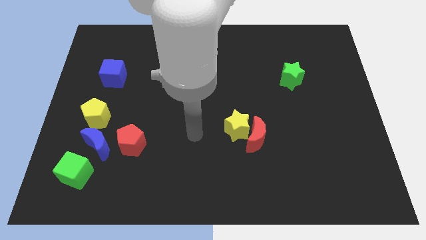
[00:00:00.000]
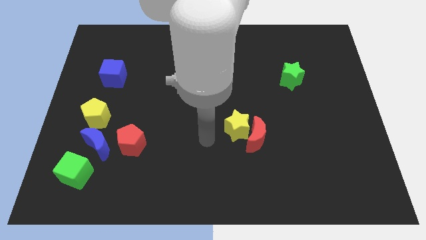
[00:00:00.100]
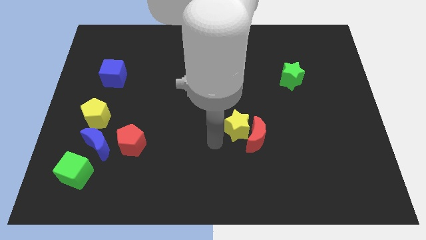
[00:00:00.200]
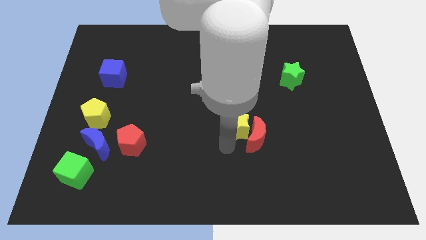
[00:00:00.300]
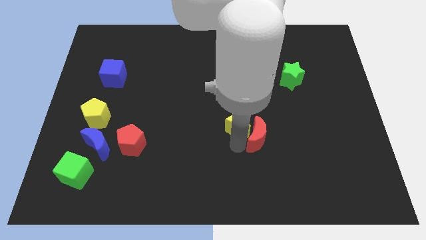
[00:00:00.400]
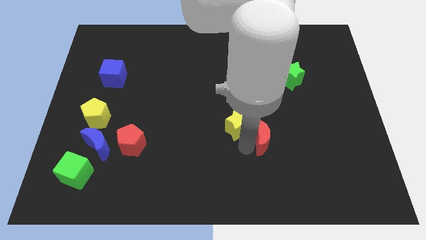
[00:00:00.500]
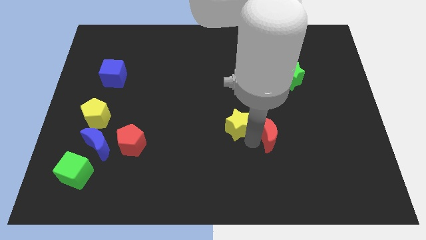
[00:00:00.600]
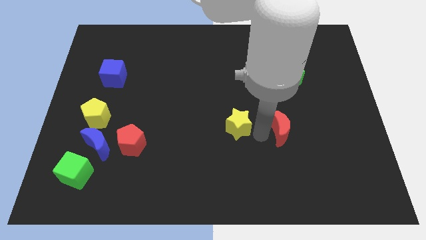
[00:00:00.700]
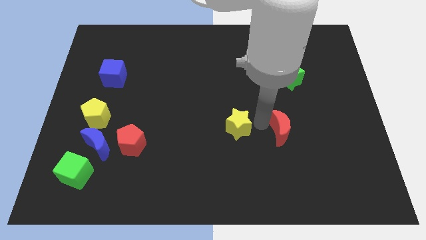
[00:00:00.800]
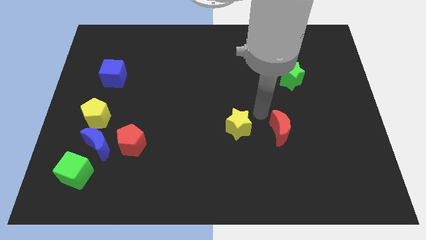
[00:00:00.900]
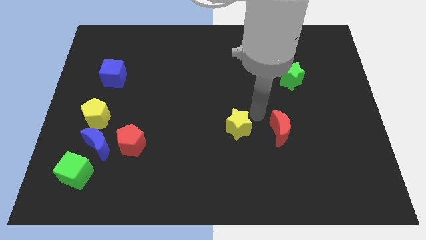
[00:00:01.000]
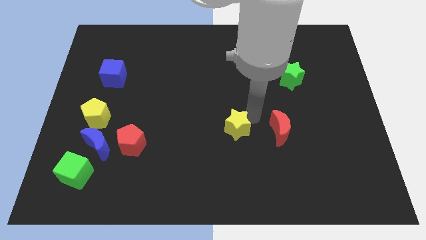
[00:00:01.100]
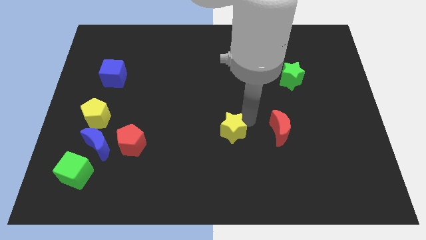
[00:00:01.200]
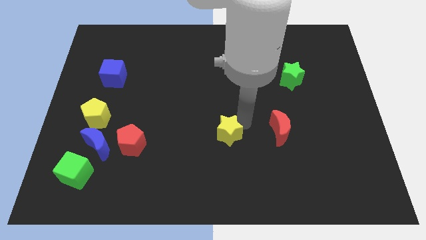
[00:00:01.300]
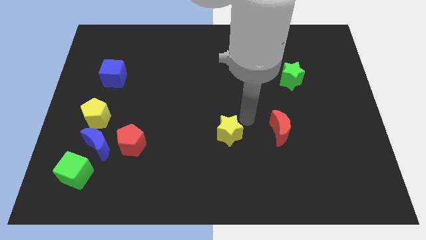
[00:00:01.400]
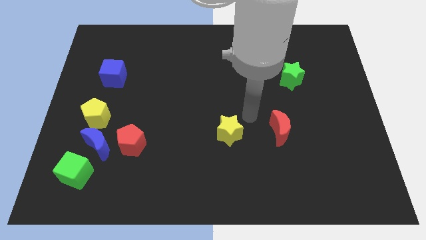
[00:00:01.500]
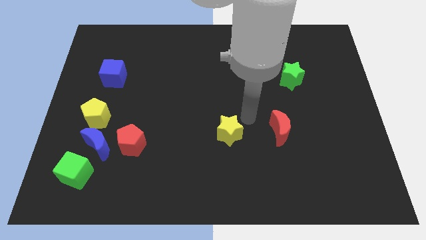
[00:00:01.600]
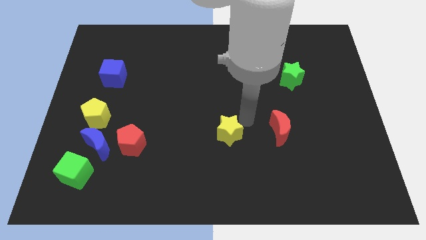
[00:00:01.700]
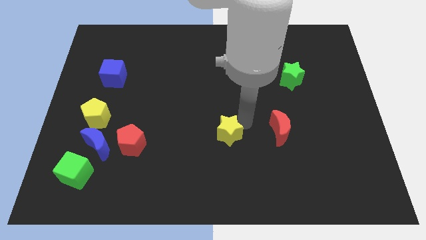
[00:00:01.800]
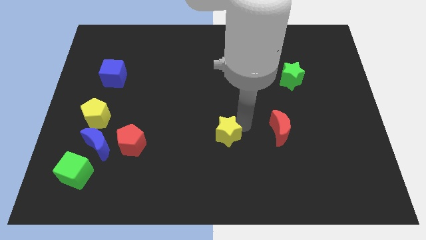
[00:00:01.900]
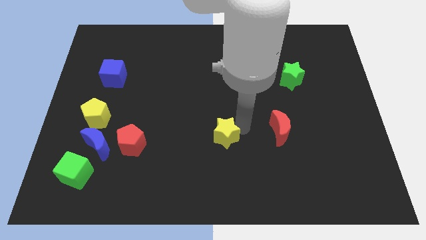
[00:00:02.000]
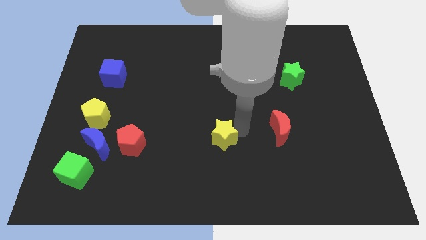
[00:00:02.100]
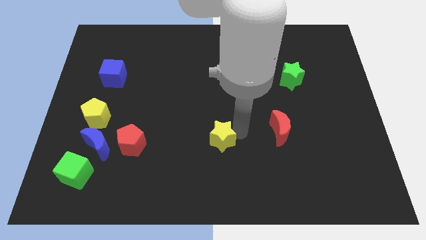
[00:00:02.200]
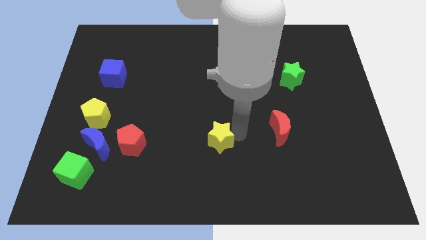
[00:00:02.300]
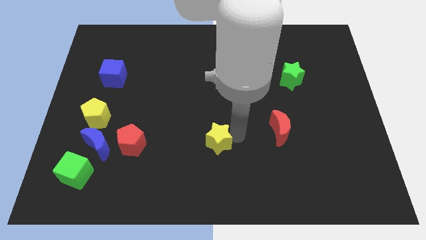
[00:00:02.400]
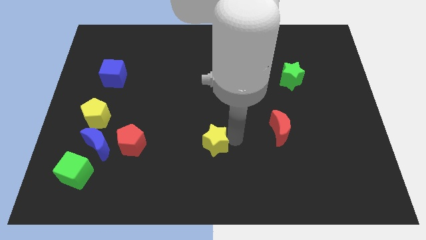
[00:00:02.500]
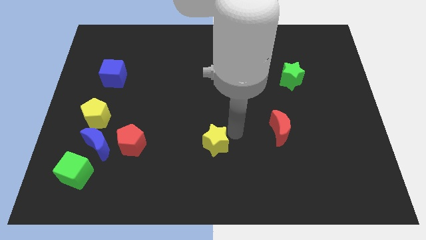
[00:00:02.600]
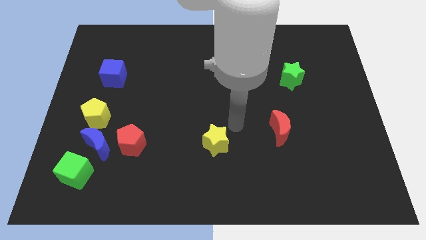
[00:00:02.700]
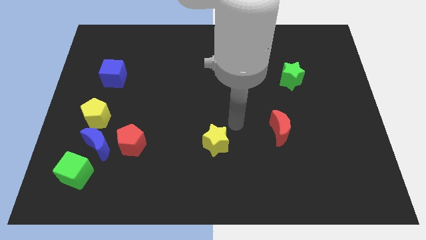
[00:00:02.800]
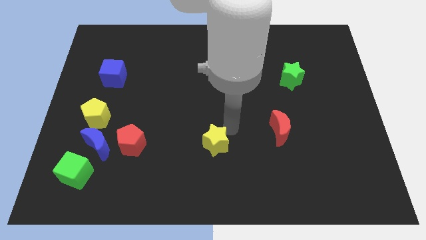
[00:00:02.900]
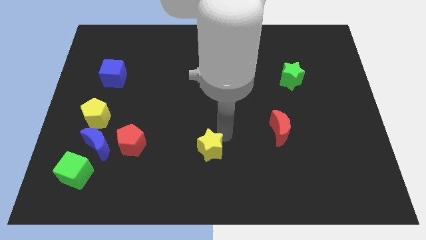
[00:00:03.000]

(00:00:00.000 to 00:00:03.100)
push the yellow star diagonally downwards and left a little bit

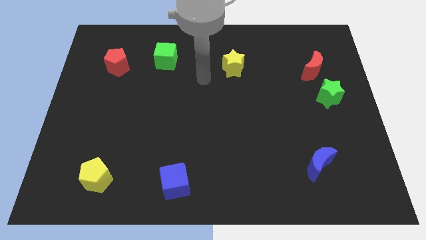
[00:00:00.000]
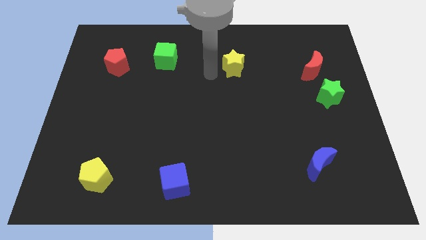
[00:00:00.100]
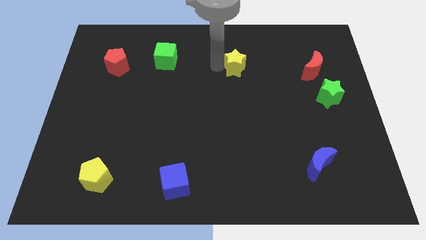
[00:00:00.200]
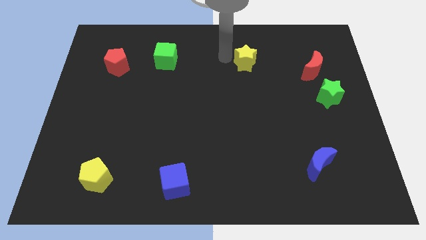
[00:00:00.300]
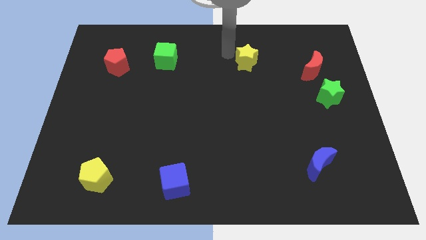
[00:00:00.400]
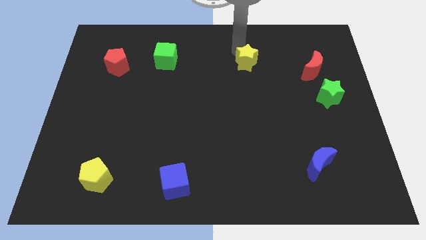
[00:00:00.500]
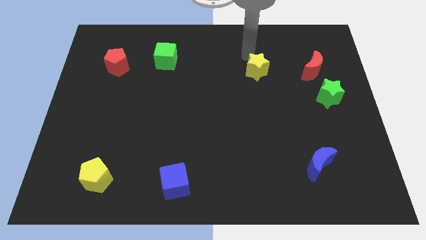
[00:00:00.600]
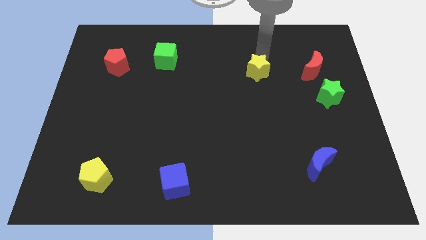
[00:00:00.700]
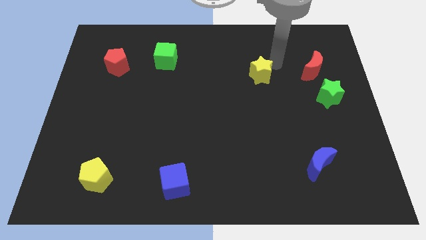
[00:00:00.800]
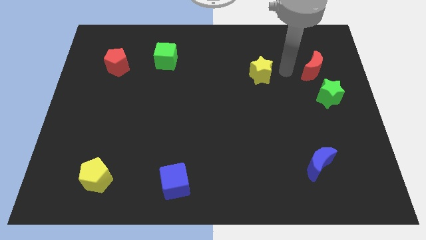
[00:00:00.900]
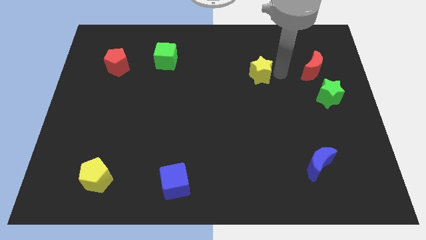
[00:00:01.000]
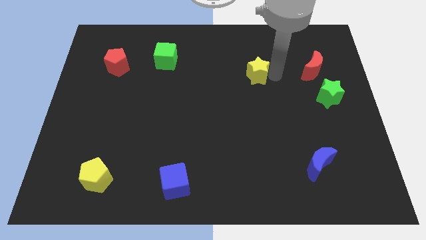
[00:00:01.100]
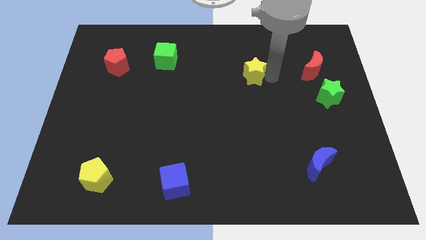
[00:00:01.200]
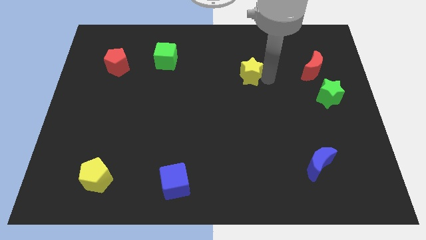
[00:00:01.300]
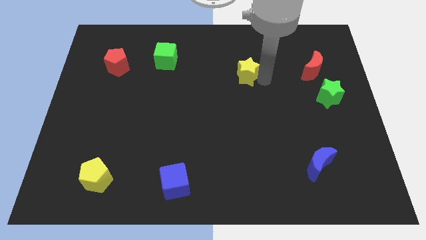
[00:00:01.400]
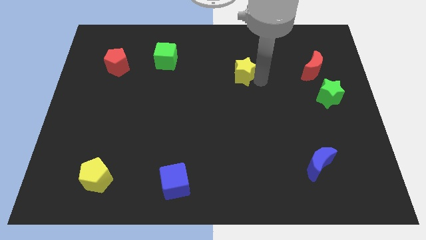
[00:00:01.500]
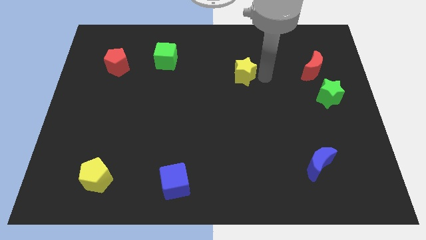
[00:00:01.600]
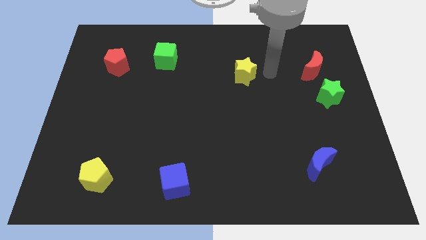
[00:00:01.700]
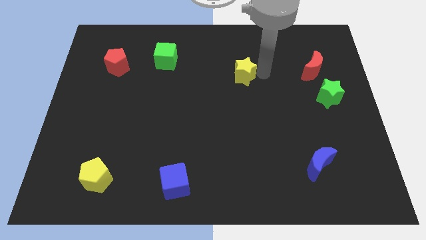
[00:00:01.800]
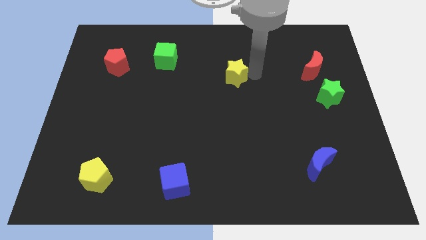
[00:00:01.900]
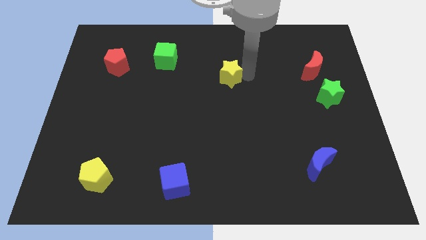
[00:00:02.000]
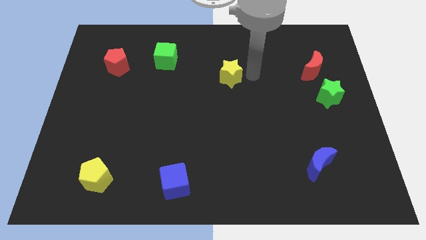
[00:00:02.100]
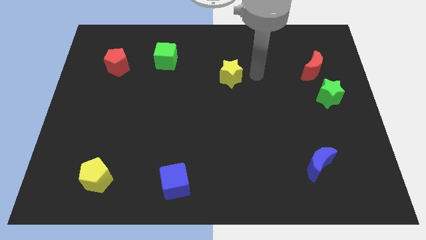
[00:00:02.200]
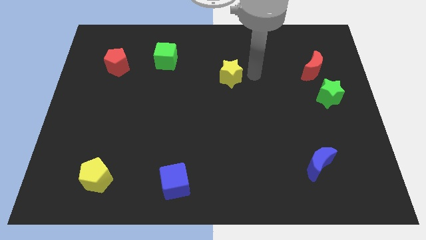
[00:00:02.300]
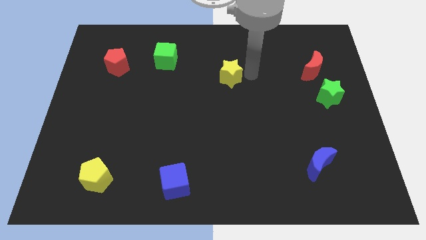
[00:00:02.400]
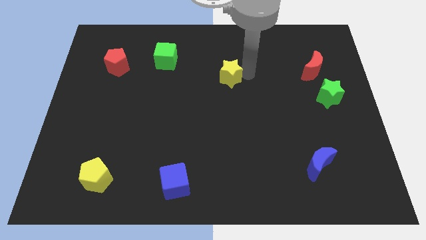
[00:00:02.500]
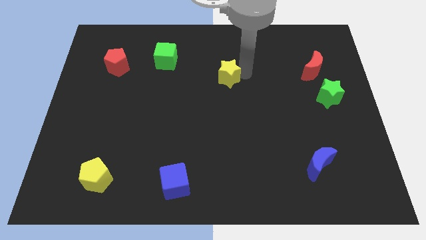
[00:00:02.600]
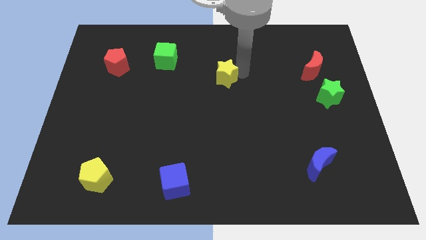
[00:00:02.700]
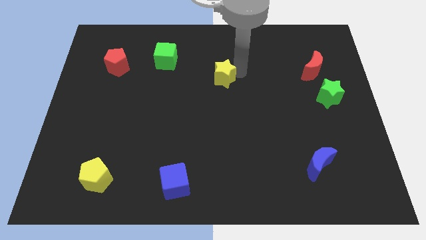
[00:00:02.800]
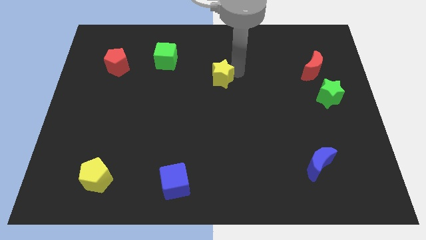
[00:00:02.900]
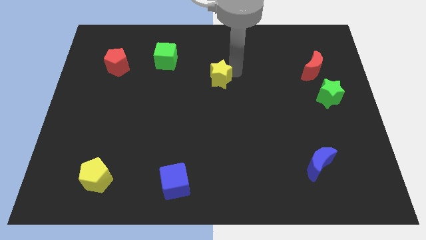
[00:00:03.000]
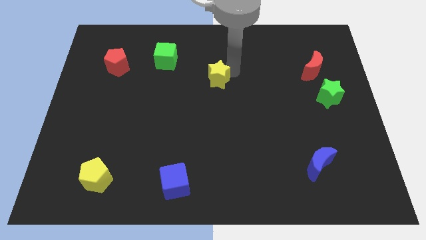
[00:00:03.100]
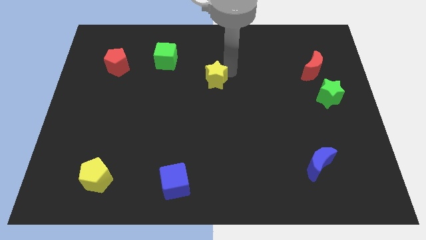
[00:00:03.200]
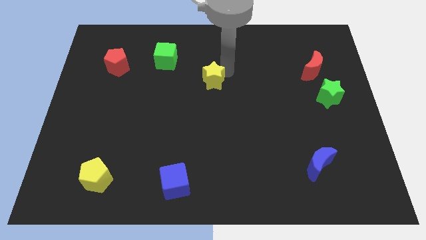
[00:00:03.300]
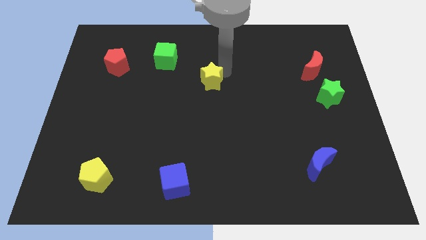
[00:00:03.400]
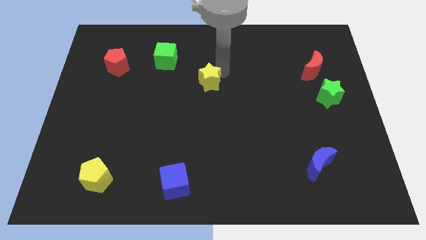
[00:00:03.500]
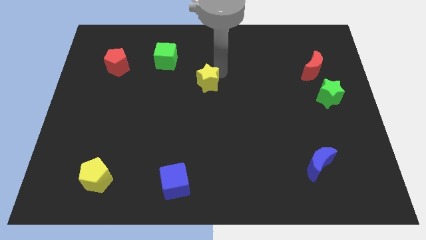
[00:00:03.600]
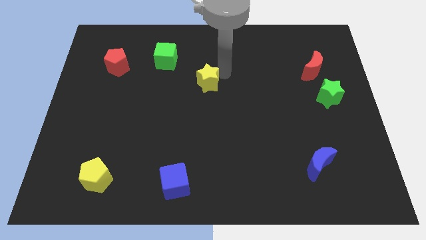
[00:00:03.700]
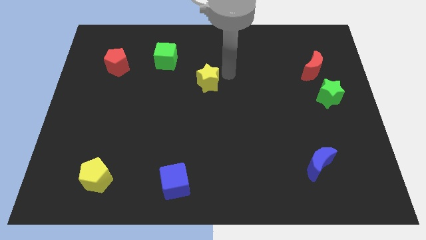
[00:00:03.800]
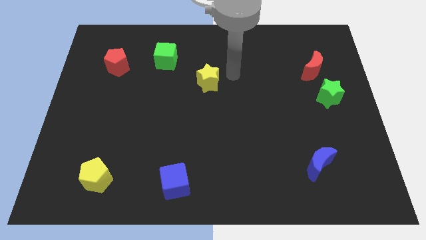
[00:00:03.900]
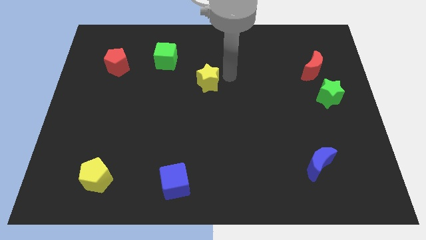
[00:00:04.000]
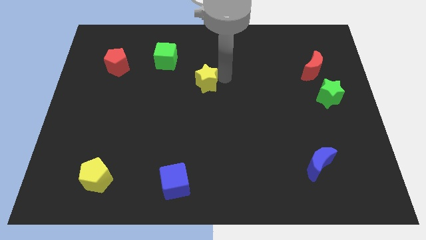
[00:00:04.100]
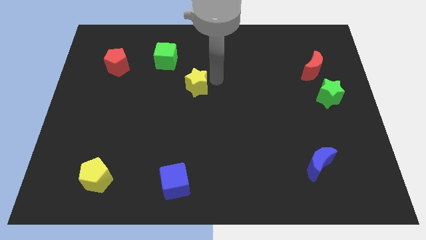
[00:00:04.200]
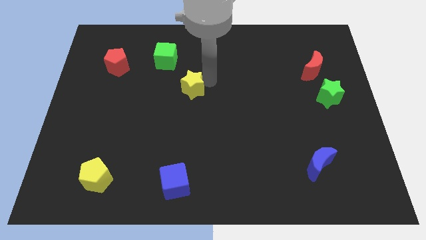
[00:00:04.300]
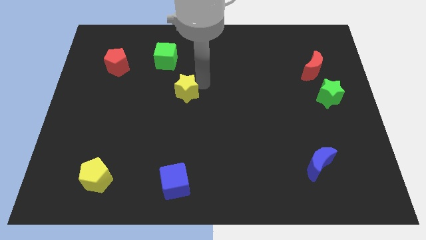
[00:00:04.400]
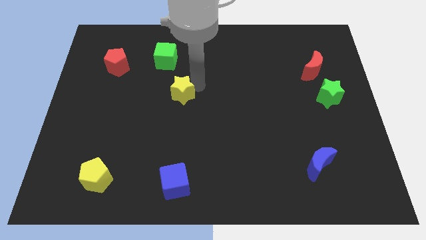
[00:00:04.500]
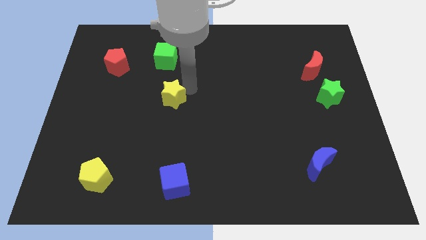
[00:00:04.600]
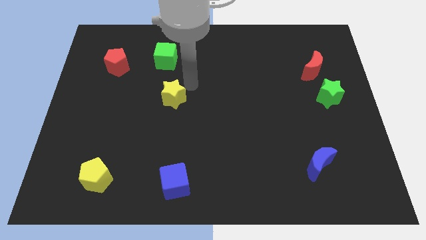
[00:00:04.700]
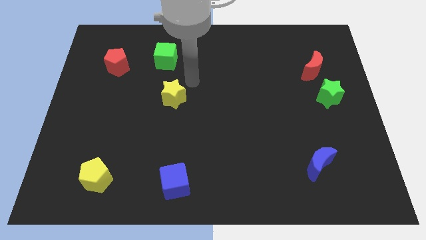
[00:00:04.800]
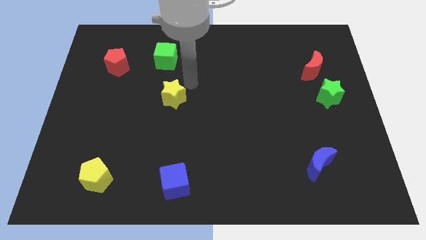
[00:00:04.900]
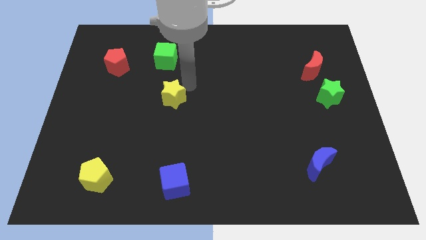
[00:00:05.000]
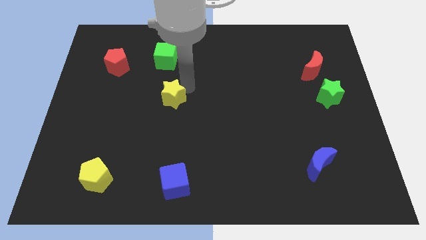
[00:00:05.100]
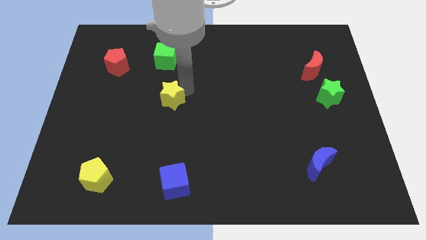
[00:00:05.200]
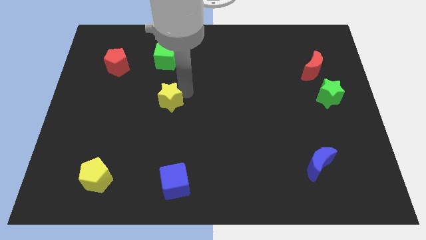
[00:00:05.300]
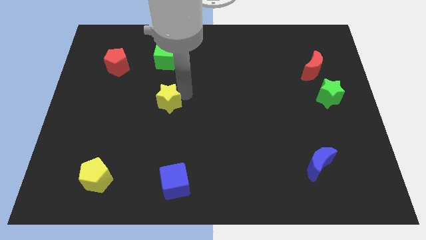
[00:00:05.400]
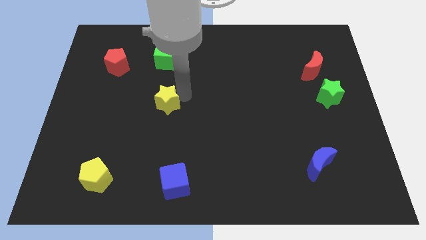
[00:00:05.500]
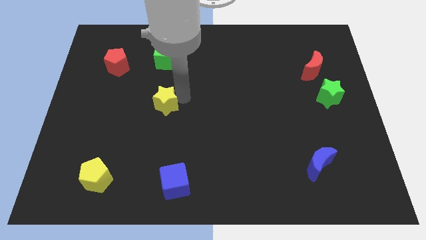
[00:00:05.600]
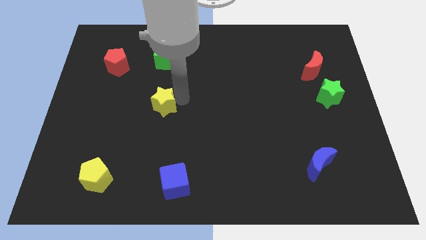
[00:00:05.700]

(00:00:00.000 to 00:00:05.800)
move the yellow star down and to the left diagonally
